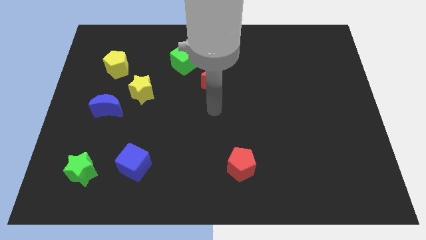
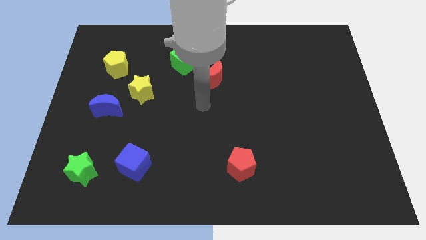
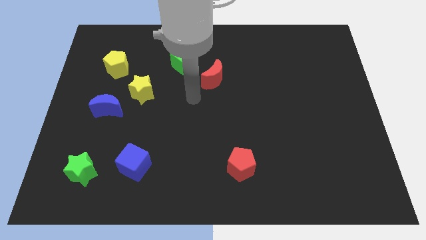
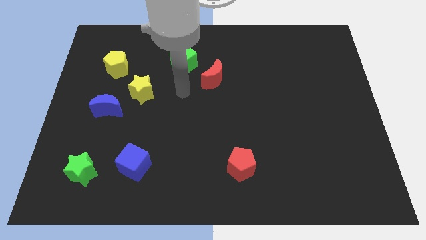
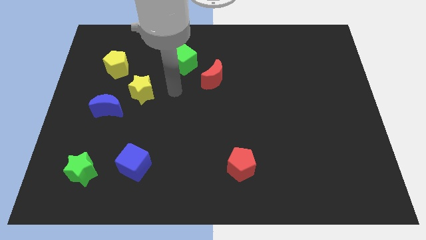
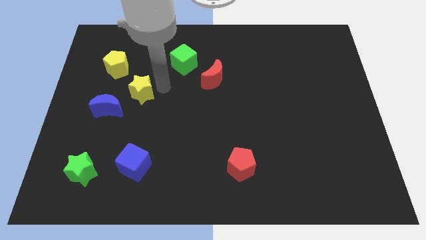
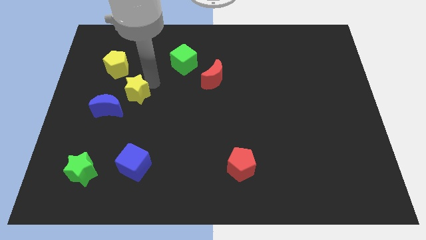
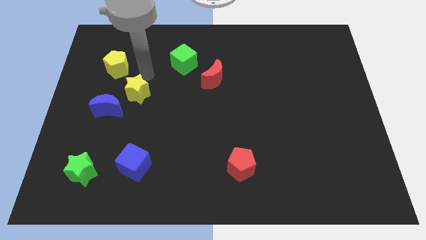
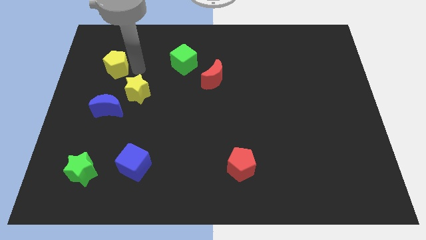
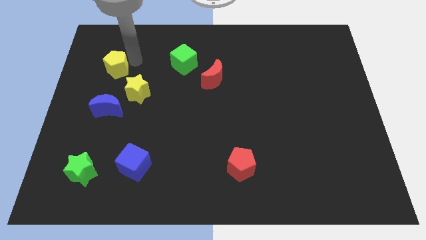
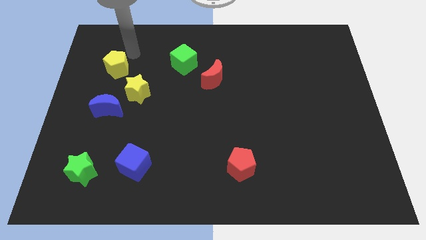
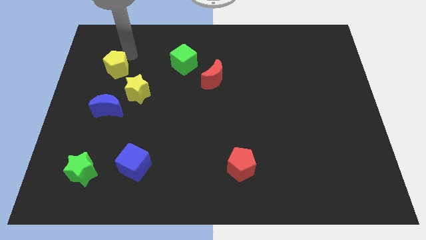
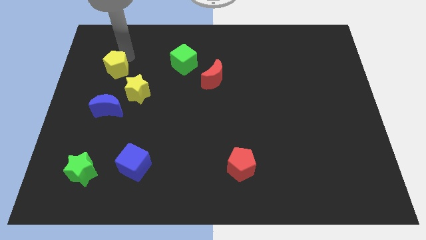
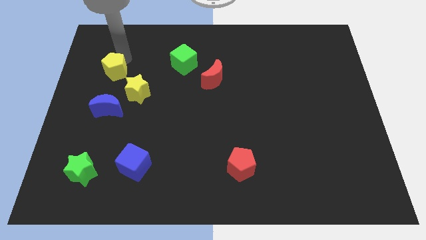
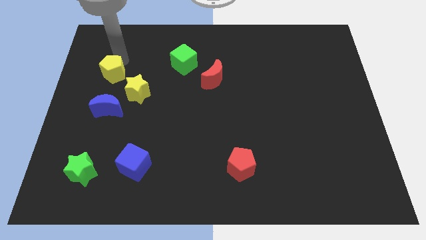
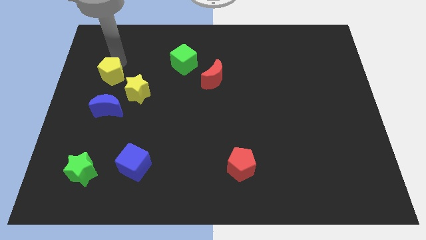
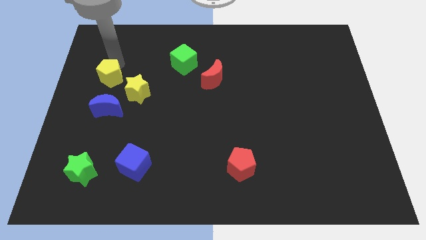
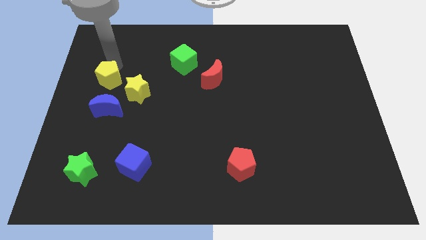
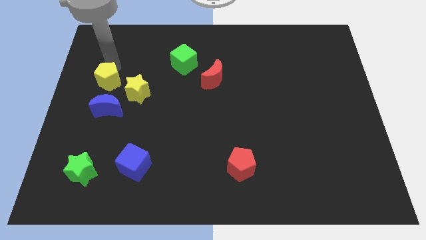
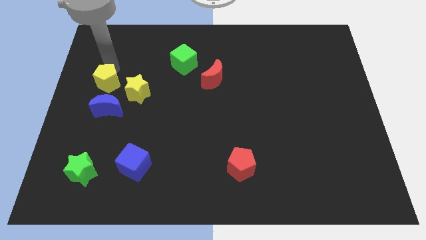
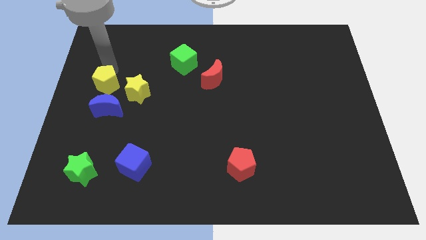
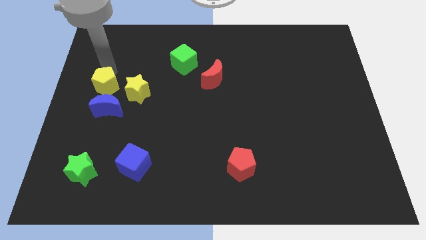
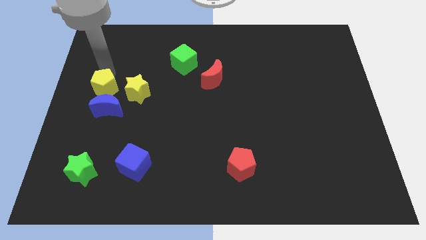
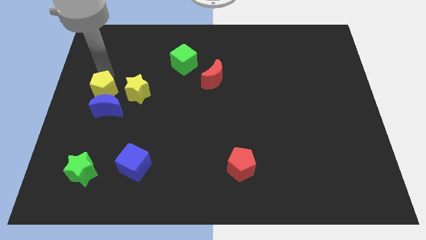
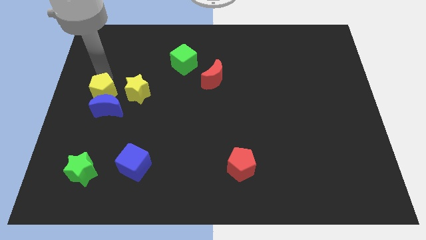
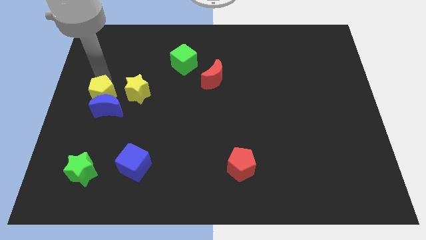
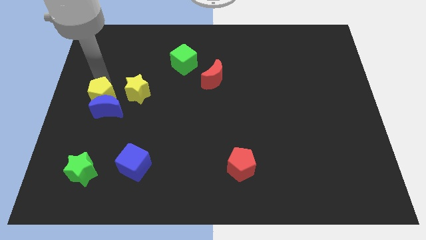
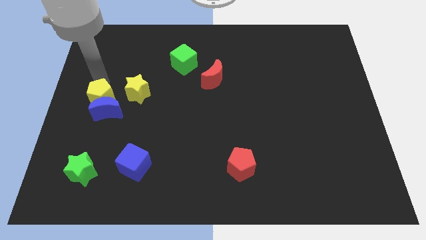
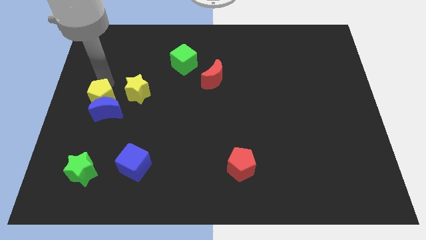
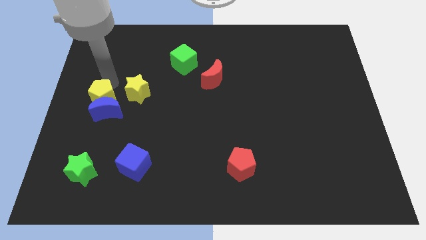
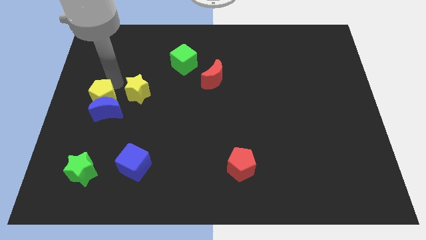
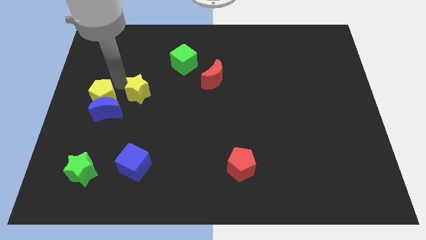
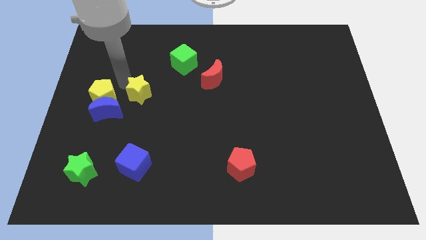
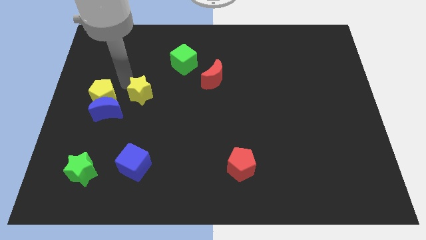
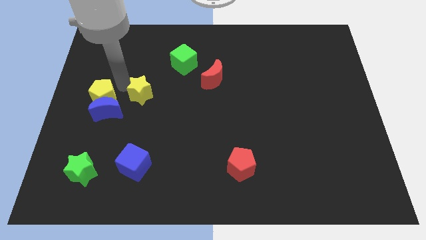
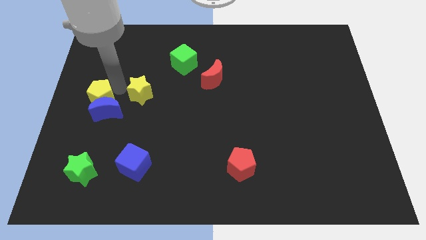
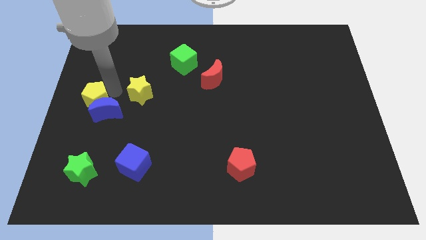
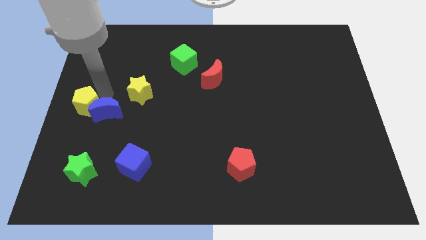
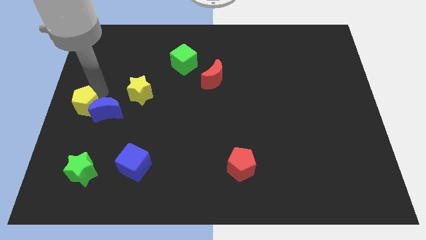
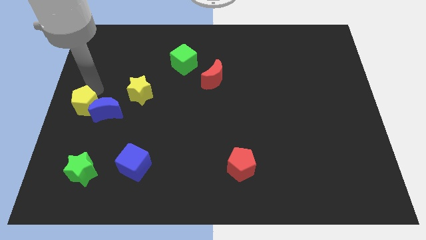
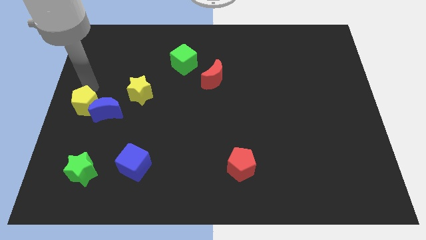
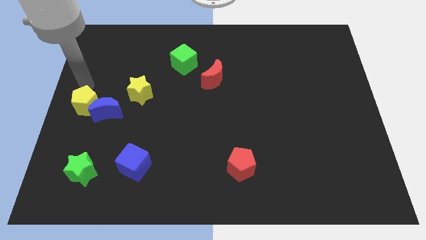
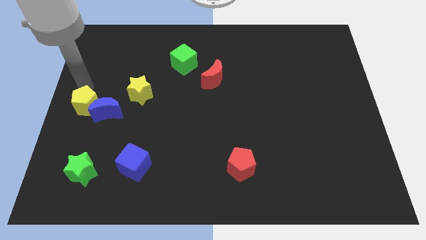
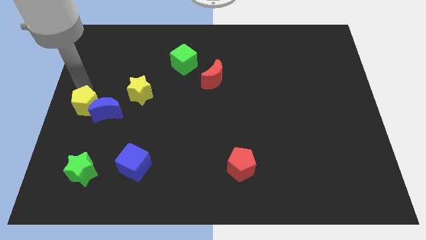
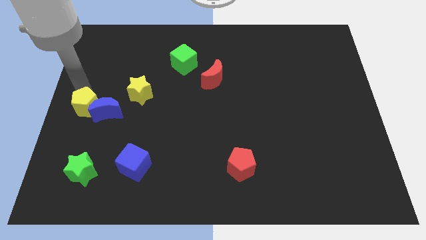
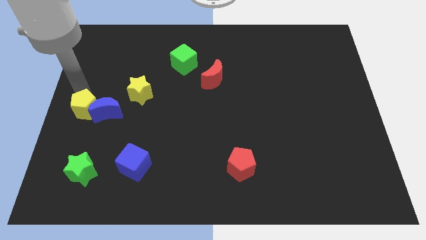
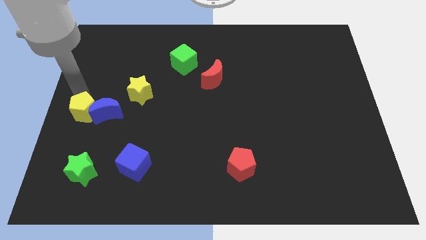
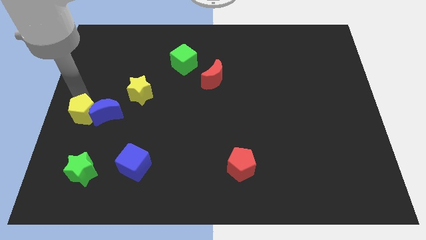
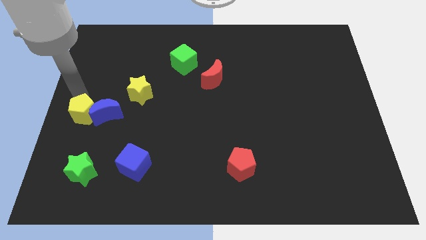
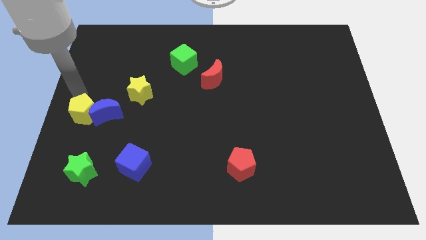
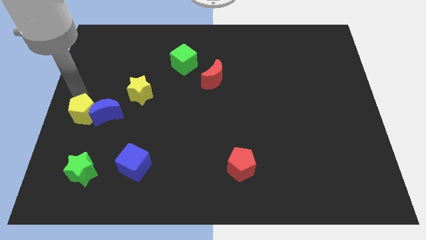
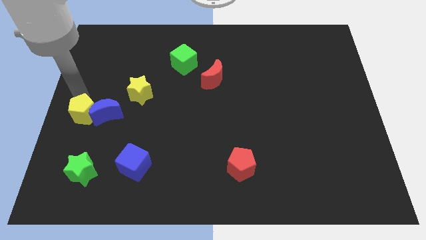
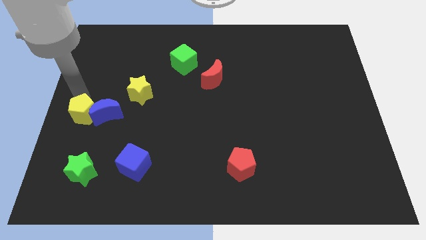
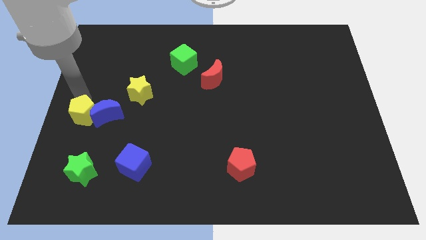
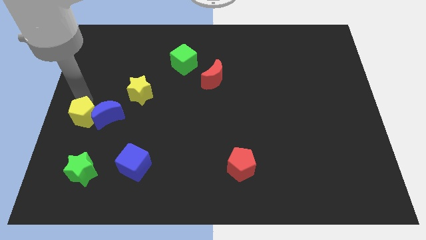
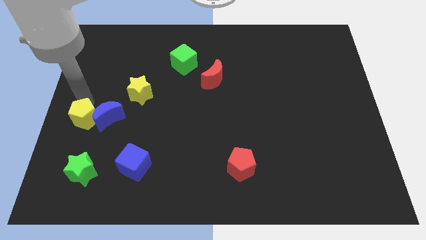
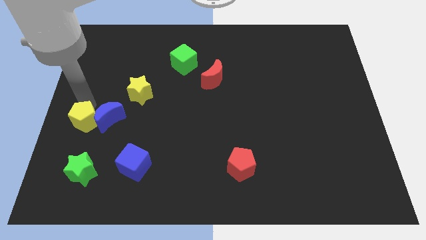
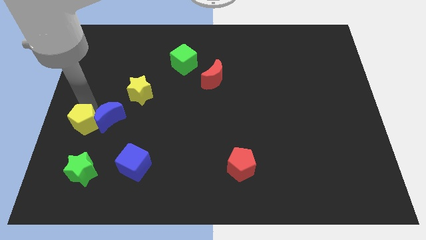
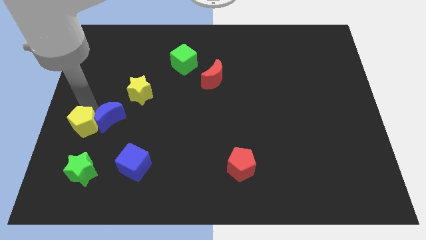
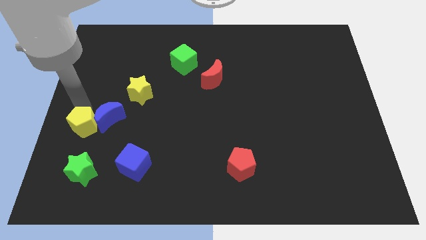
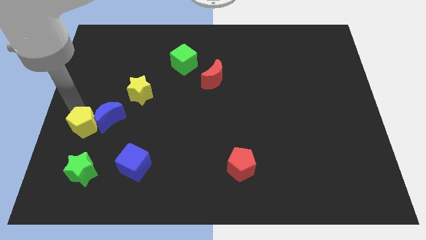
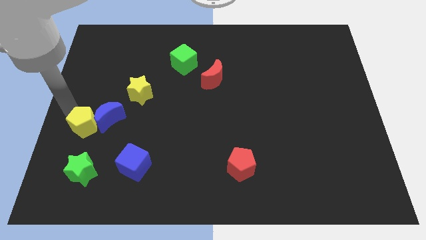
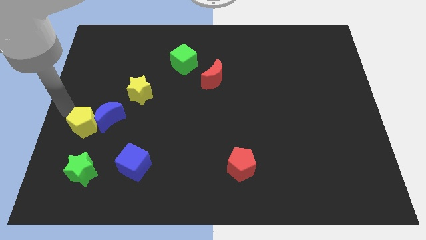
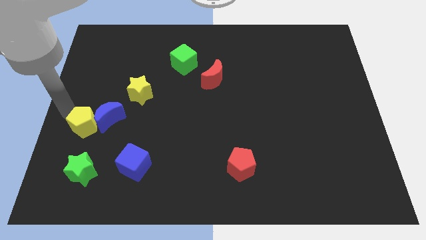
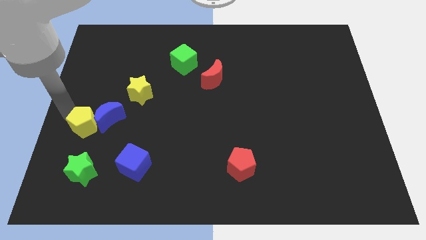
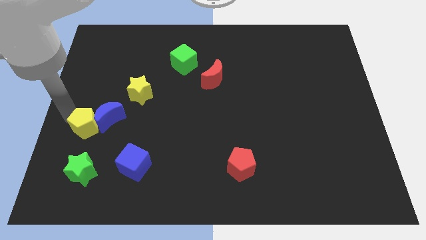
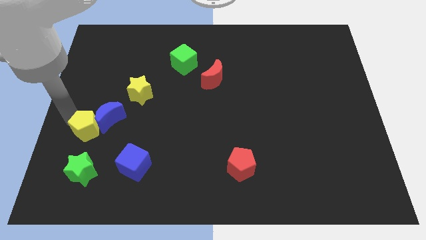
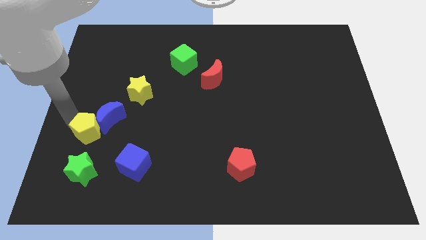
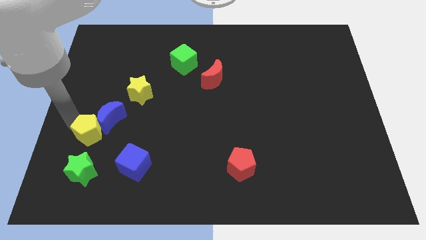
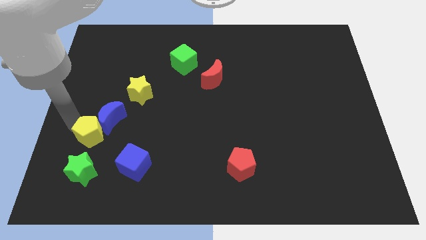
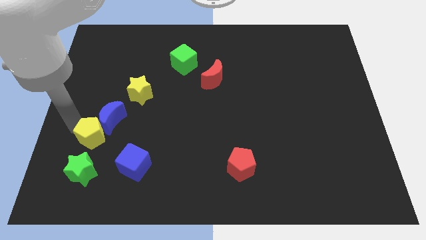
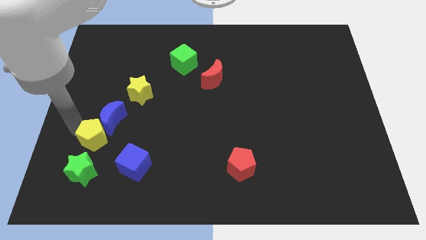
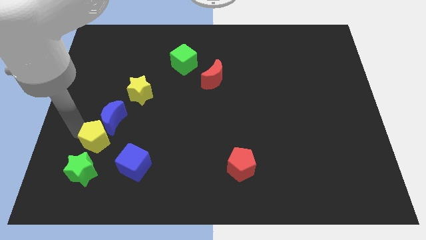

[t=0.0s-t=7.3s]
slide the yellow pentagon to the top right side of the green star
